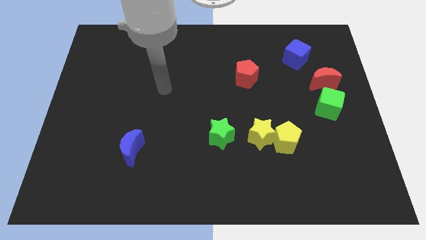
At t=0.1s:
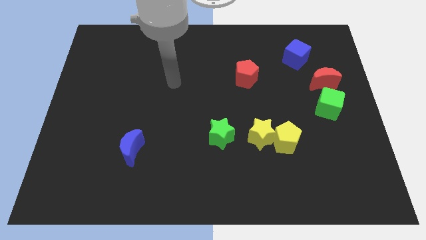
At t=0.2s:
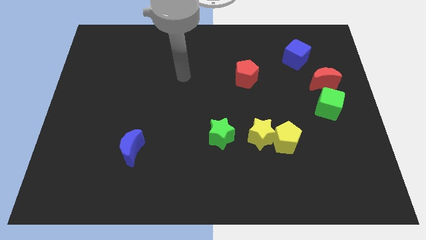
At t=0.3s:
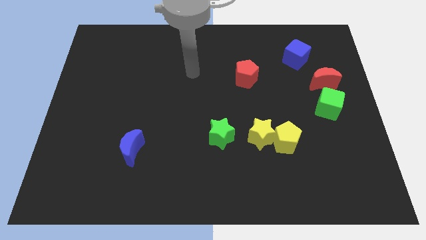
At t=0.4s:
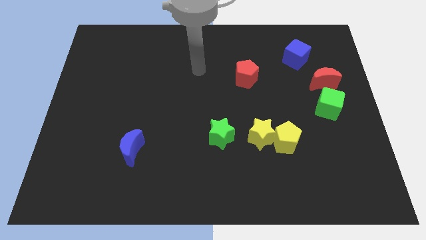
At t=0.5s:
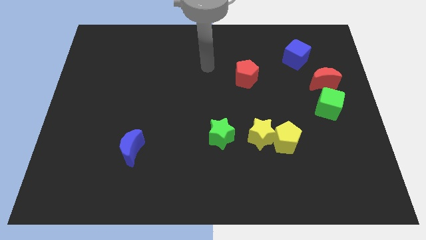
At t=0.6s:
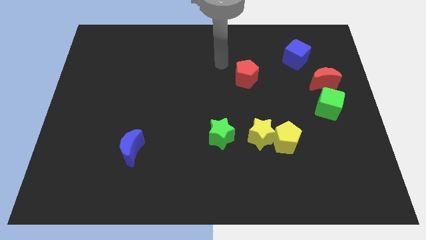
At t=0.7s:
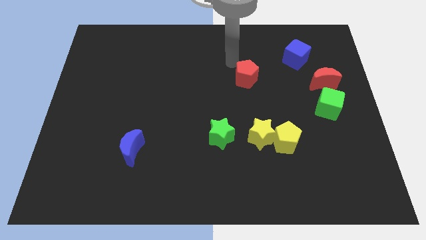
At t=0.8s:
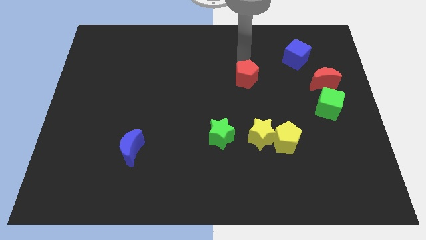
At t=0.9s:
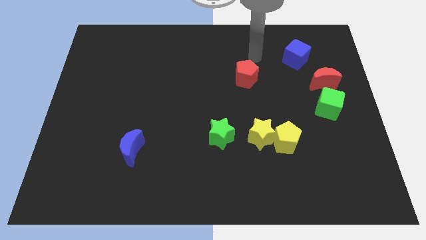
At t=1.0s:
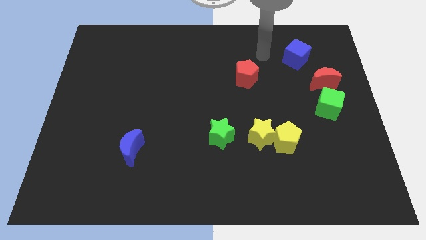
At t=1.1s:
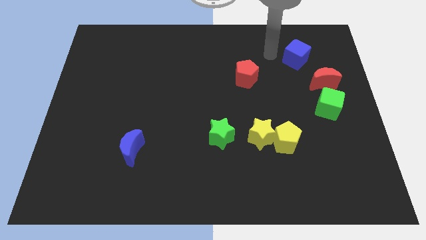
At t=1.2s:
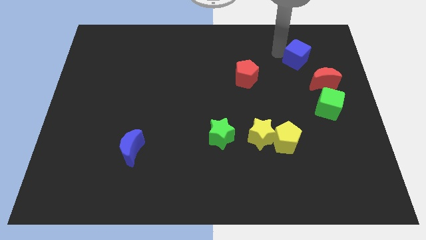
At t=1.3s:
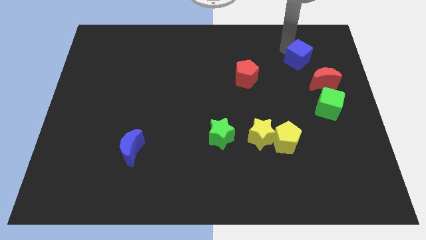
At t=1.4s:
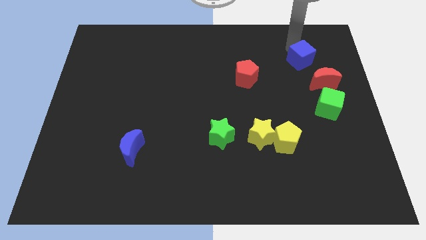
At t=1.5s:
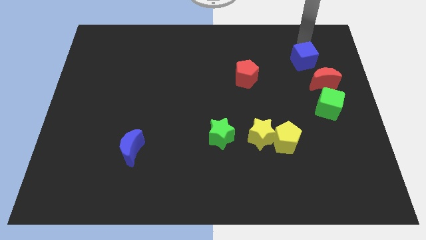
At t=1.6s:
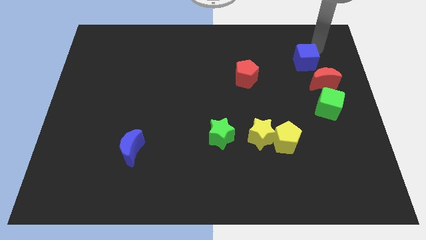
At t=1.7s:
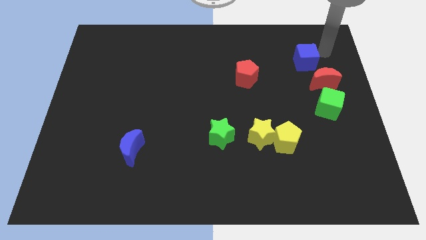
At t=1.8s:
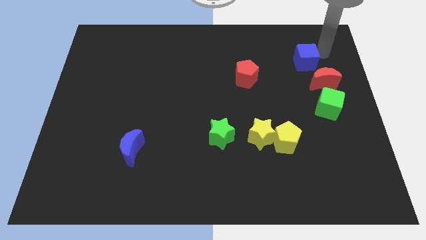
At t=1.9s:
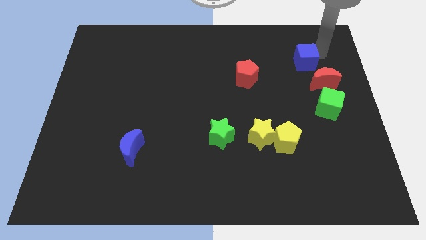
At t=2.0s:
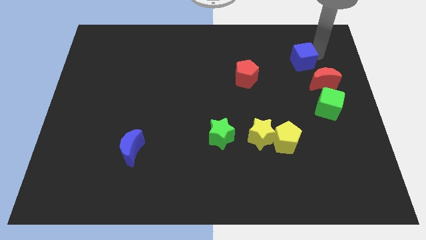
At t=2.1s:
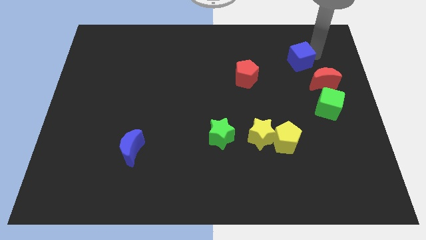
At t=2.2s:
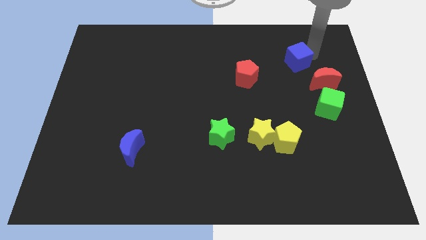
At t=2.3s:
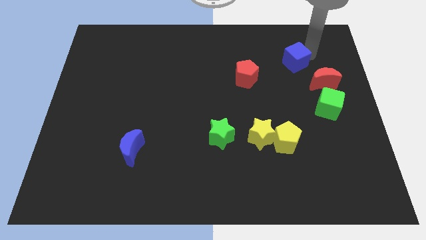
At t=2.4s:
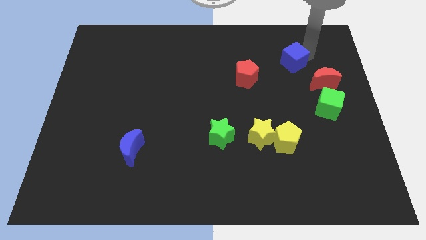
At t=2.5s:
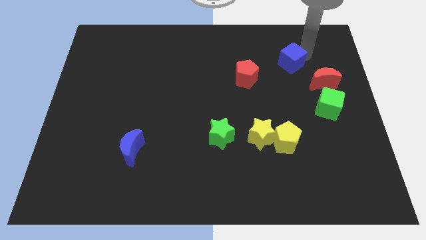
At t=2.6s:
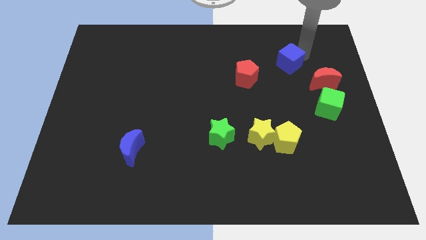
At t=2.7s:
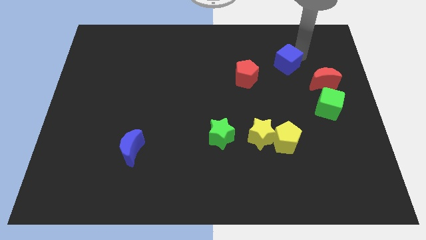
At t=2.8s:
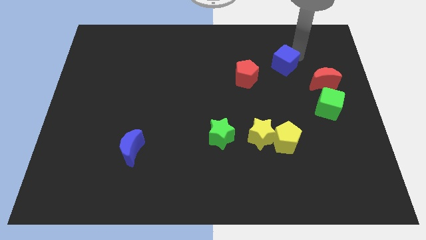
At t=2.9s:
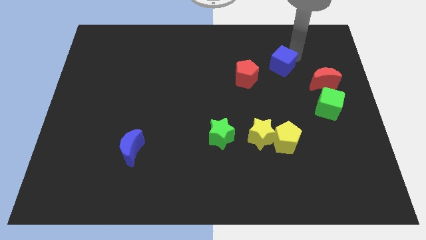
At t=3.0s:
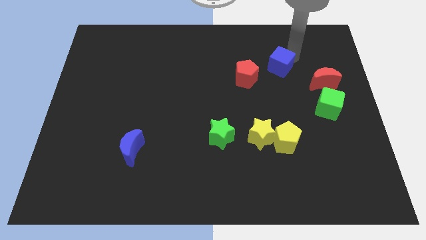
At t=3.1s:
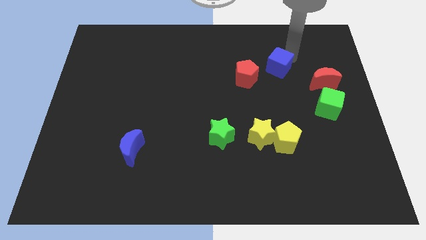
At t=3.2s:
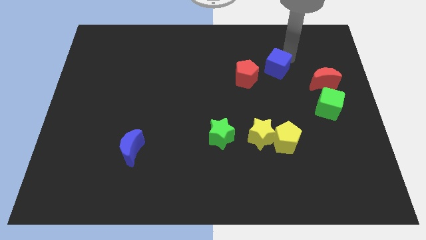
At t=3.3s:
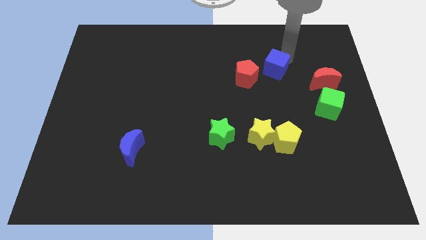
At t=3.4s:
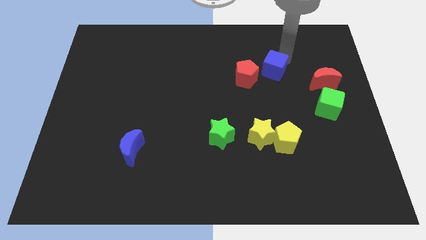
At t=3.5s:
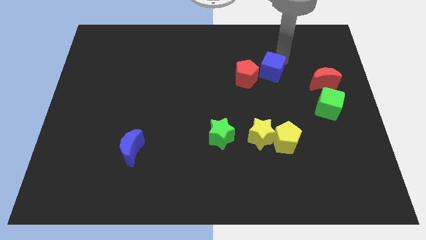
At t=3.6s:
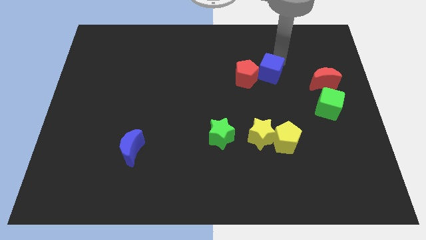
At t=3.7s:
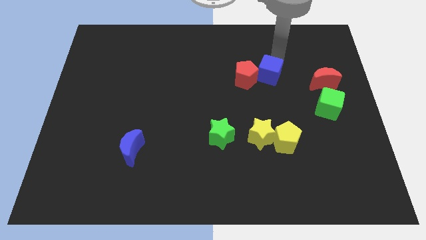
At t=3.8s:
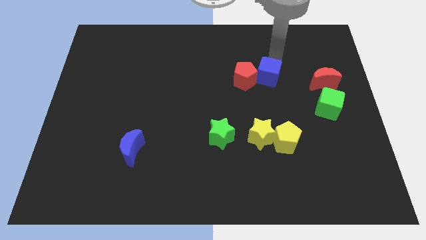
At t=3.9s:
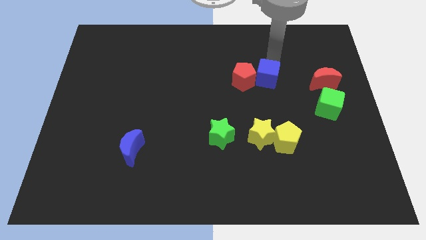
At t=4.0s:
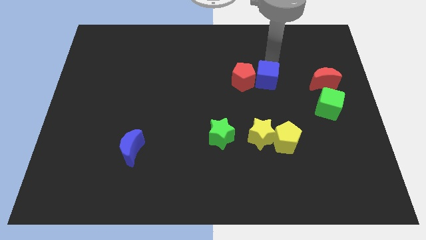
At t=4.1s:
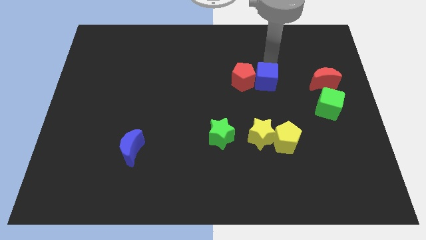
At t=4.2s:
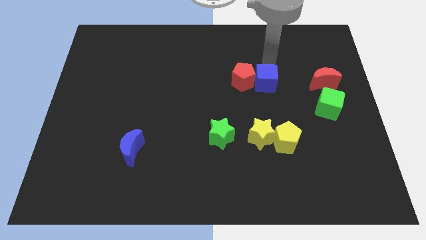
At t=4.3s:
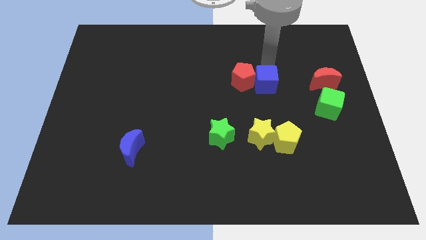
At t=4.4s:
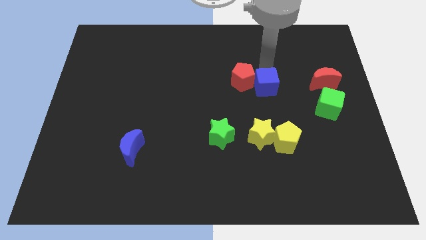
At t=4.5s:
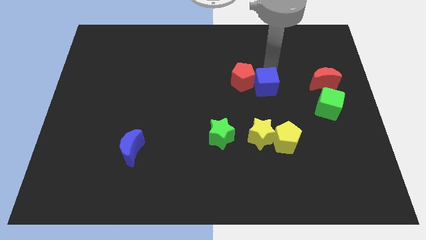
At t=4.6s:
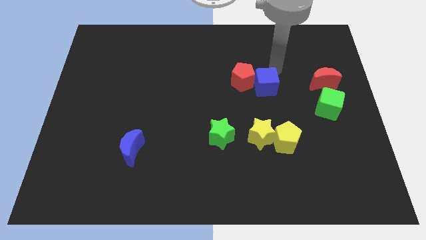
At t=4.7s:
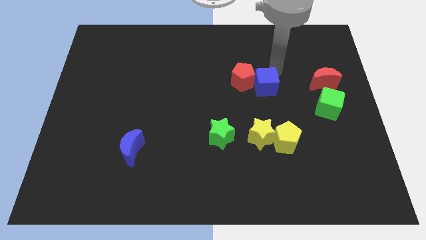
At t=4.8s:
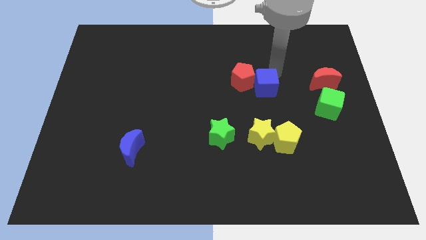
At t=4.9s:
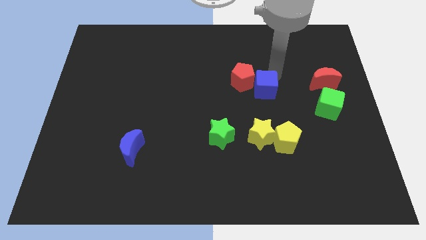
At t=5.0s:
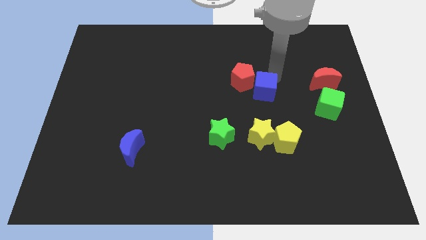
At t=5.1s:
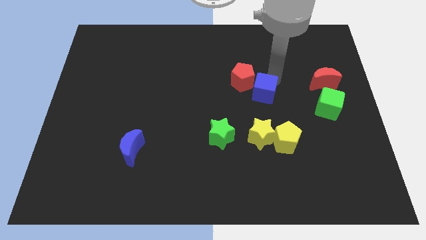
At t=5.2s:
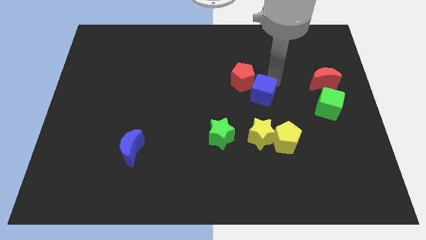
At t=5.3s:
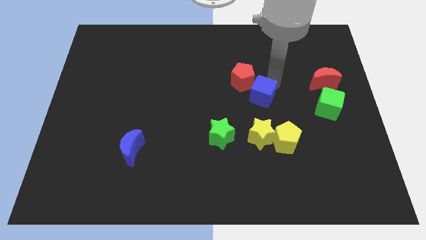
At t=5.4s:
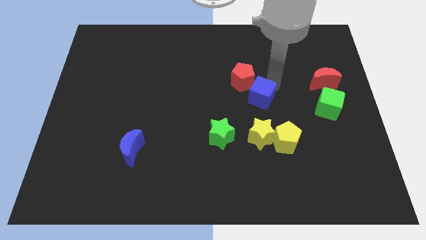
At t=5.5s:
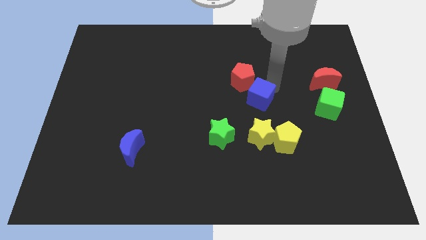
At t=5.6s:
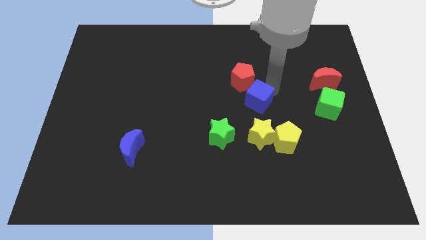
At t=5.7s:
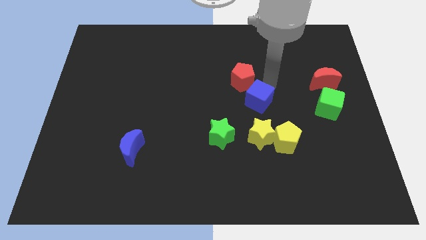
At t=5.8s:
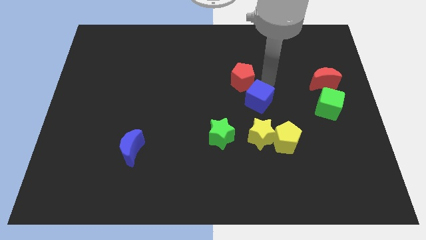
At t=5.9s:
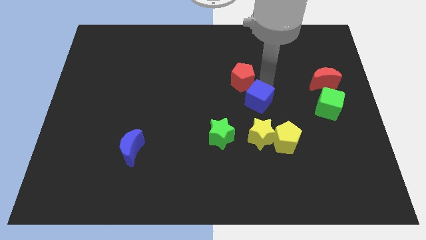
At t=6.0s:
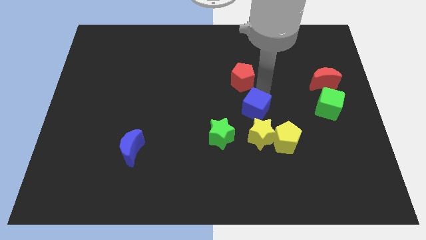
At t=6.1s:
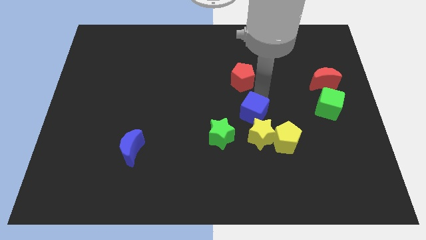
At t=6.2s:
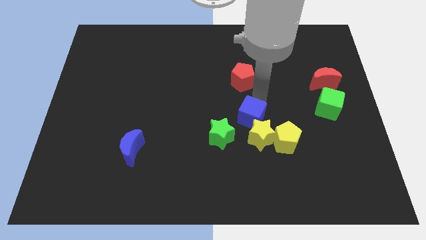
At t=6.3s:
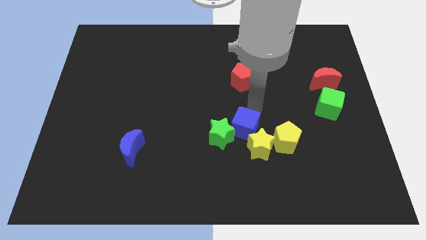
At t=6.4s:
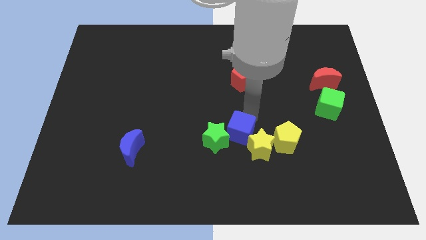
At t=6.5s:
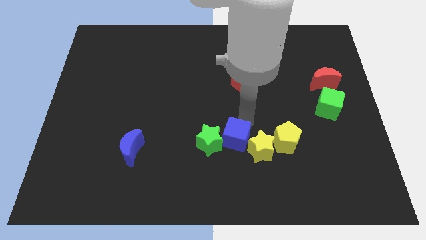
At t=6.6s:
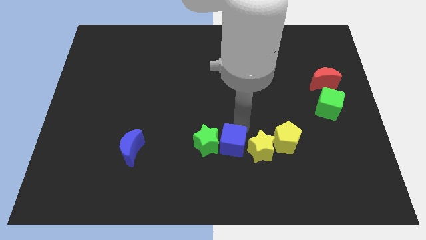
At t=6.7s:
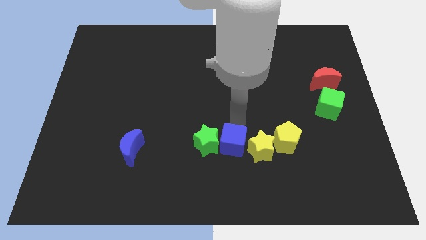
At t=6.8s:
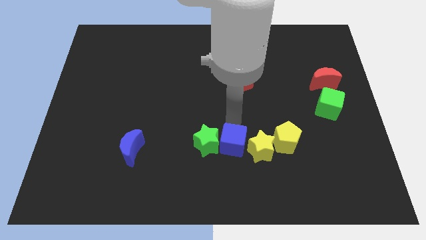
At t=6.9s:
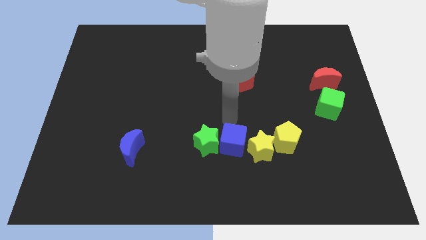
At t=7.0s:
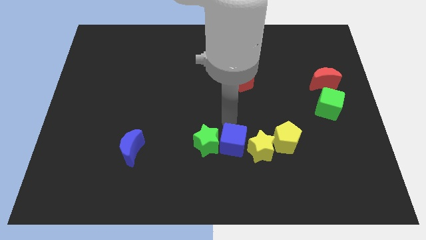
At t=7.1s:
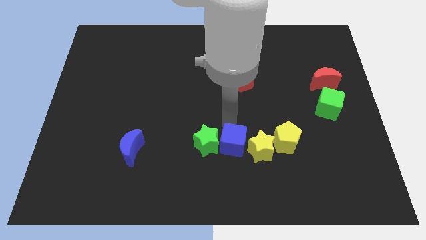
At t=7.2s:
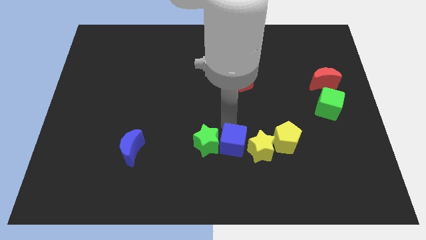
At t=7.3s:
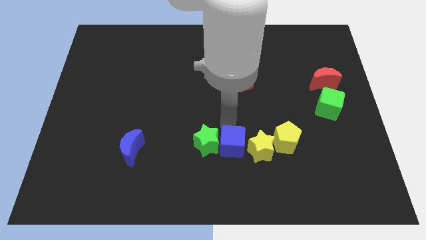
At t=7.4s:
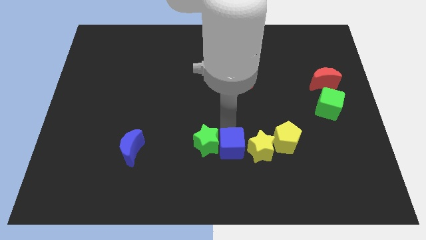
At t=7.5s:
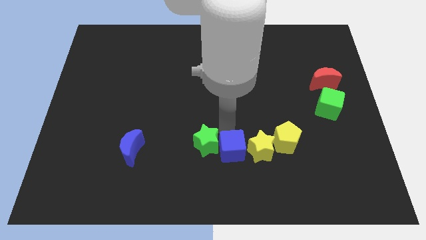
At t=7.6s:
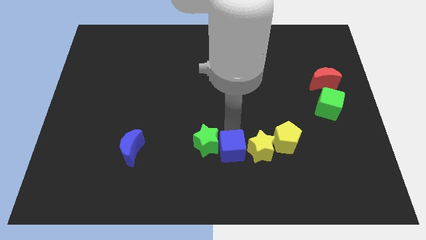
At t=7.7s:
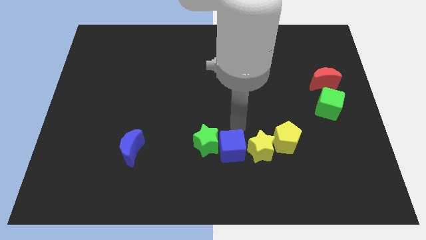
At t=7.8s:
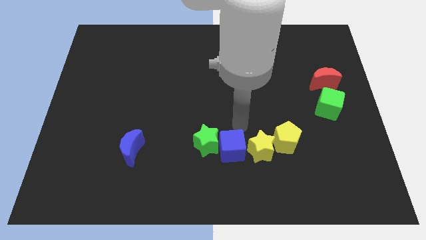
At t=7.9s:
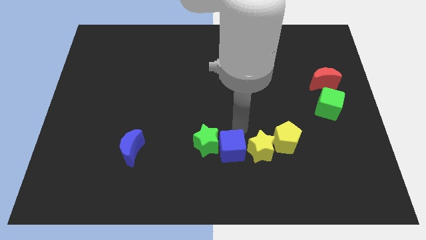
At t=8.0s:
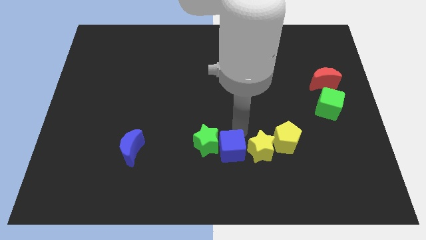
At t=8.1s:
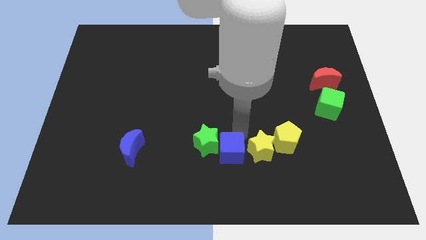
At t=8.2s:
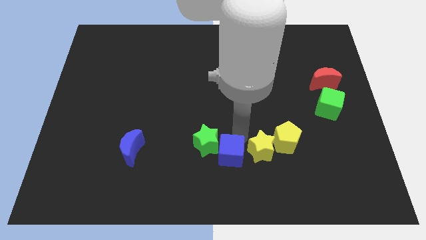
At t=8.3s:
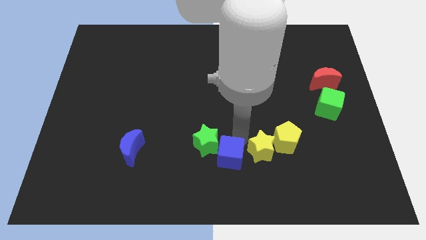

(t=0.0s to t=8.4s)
put the blue cube to the bottom
